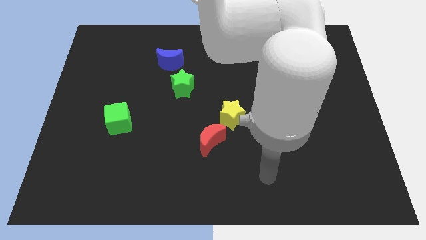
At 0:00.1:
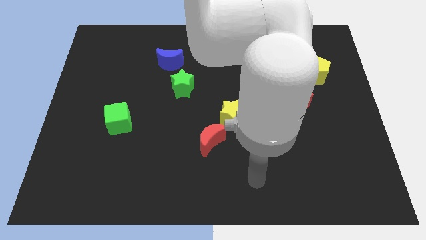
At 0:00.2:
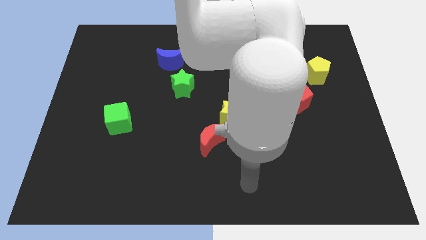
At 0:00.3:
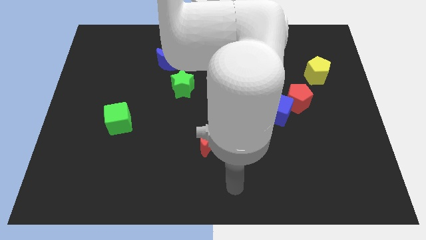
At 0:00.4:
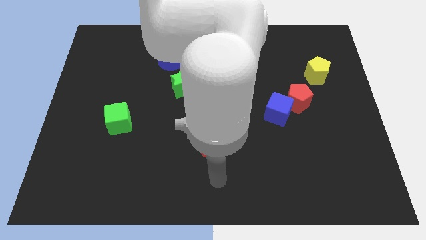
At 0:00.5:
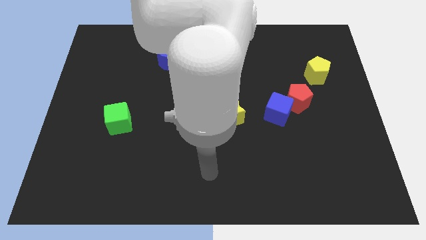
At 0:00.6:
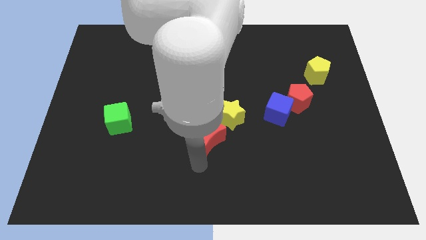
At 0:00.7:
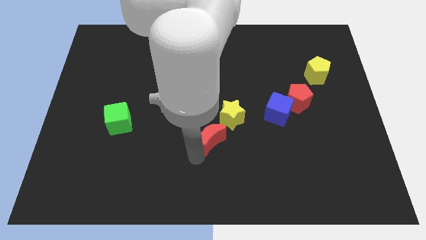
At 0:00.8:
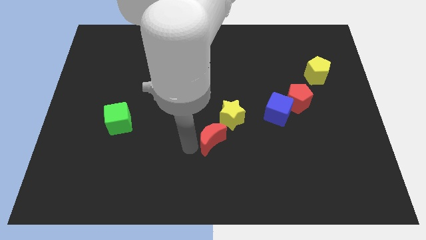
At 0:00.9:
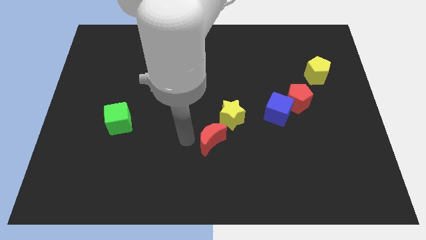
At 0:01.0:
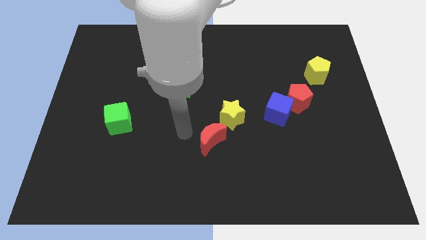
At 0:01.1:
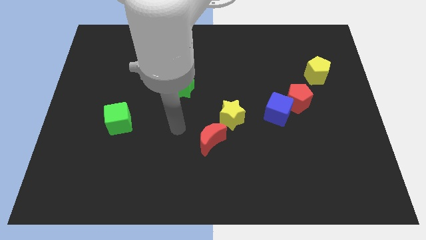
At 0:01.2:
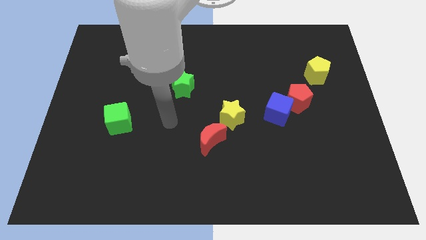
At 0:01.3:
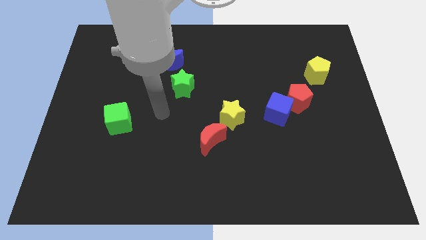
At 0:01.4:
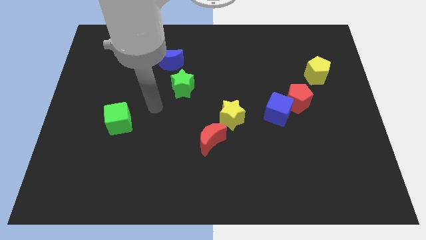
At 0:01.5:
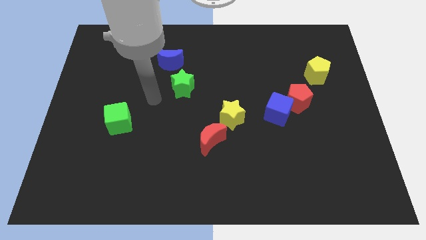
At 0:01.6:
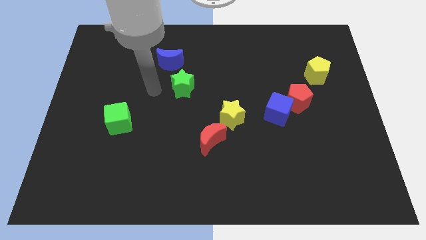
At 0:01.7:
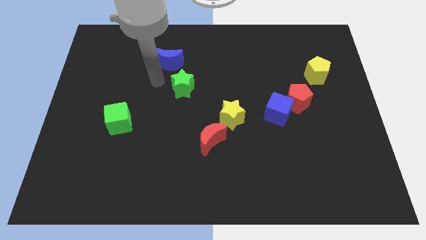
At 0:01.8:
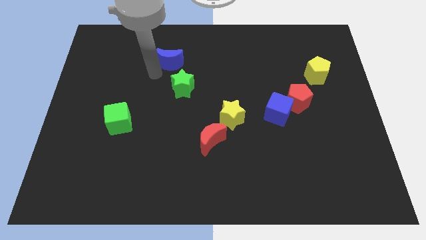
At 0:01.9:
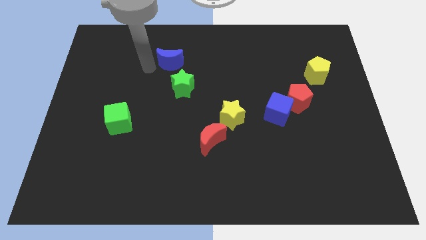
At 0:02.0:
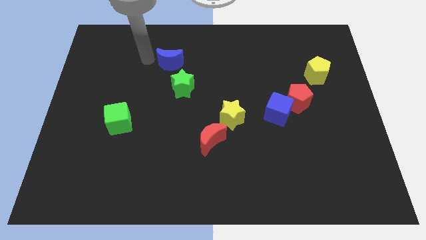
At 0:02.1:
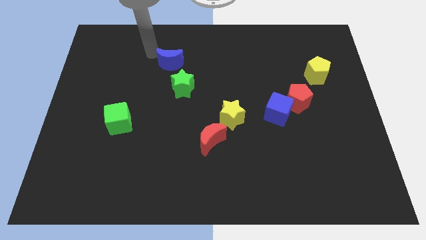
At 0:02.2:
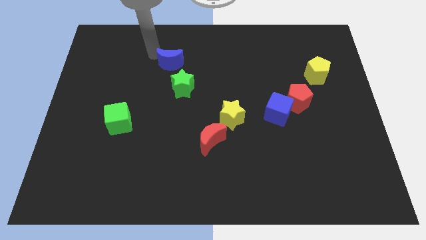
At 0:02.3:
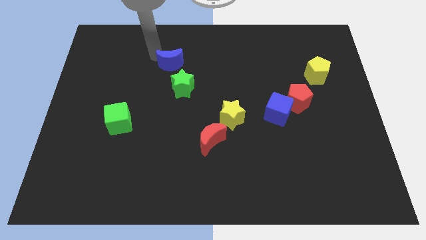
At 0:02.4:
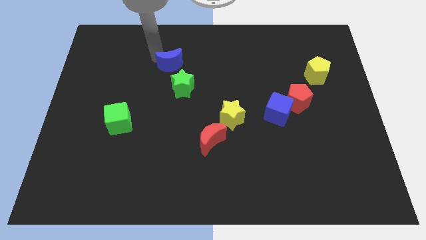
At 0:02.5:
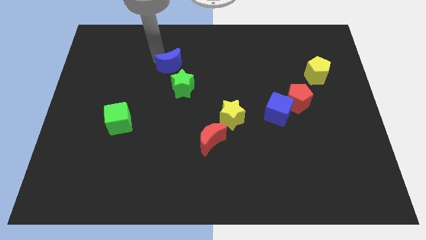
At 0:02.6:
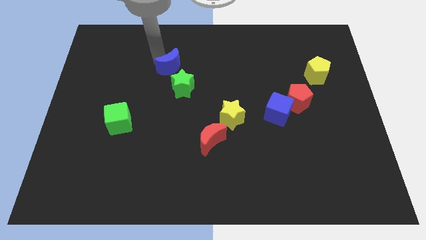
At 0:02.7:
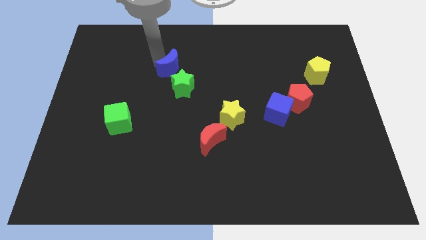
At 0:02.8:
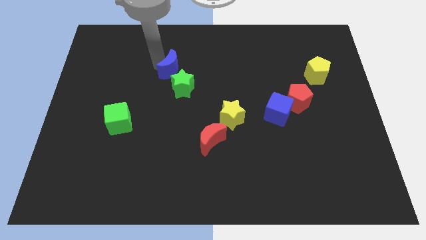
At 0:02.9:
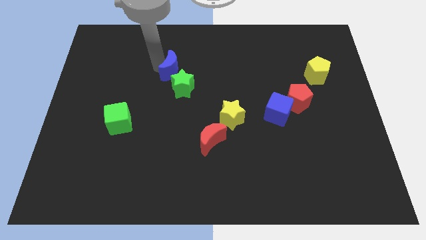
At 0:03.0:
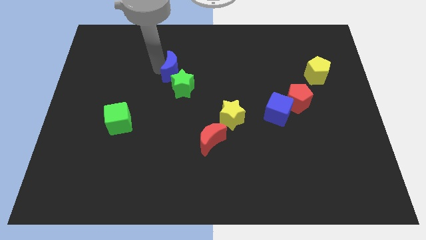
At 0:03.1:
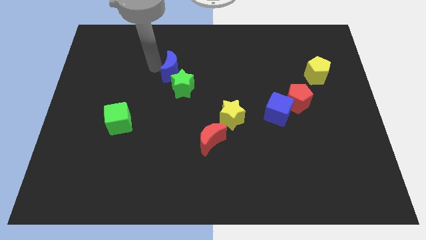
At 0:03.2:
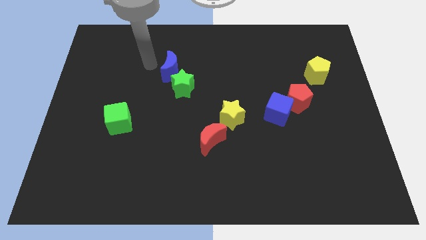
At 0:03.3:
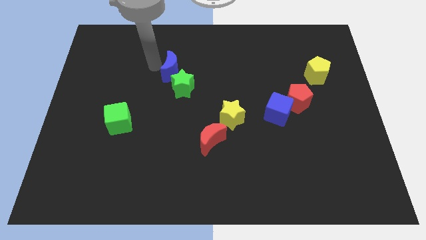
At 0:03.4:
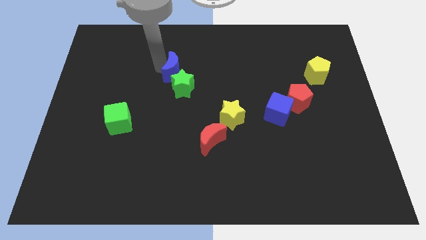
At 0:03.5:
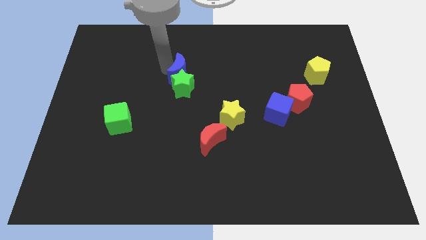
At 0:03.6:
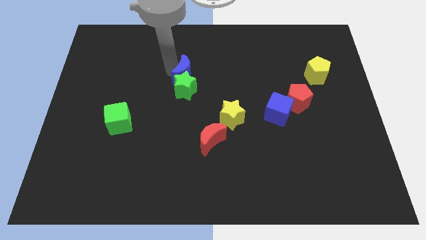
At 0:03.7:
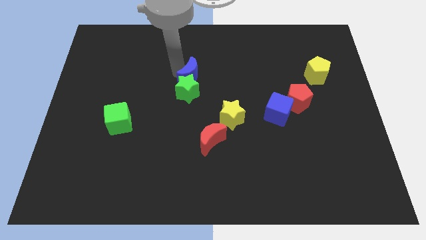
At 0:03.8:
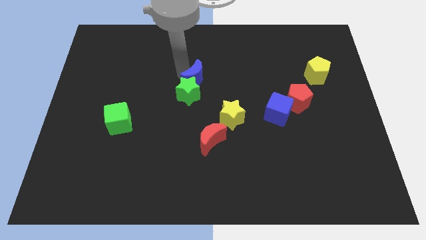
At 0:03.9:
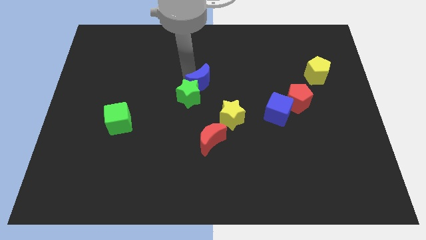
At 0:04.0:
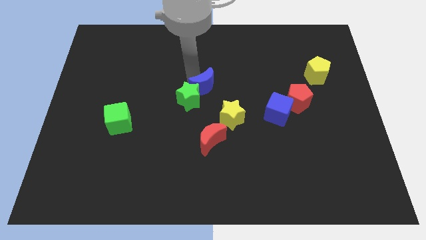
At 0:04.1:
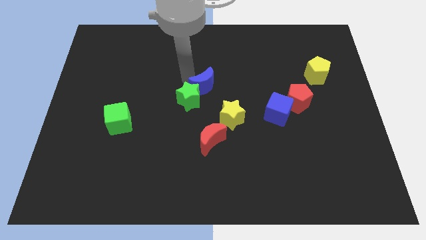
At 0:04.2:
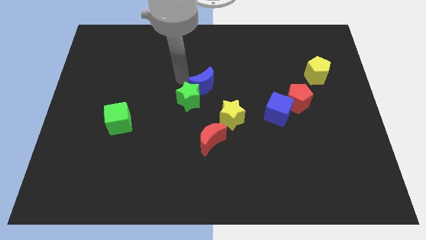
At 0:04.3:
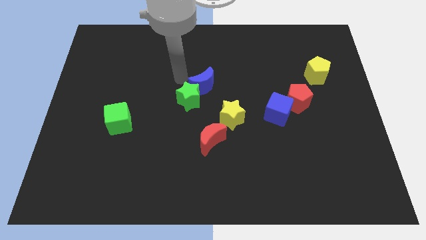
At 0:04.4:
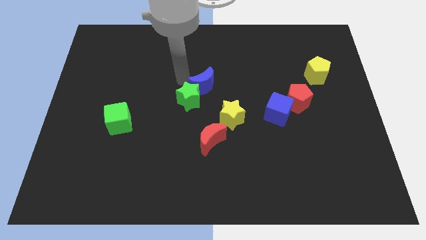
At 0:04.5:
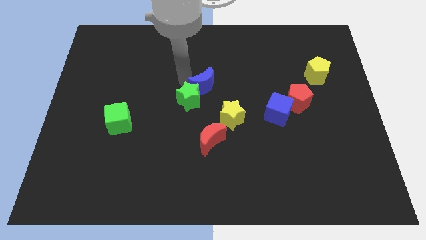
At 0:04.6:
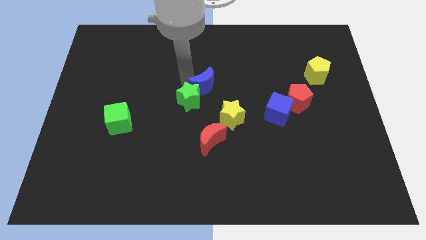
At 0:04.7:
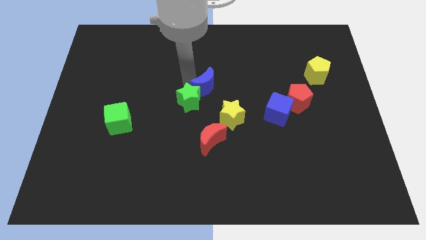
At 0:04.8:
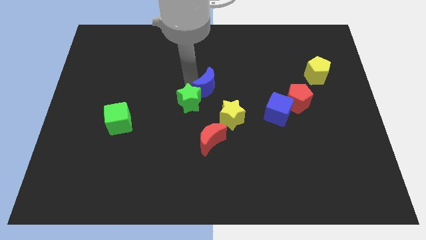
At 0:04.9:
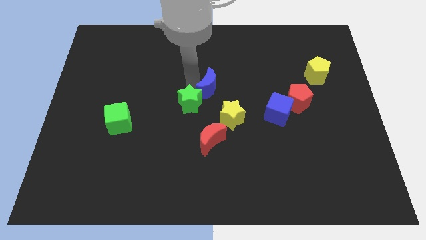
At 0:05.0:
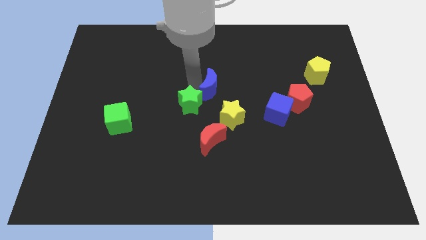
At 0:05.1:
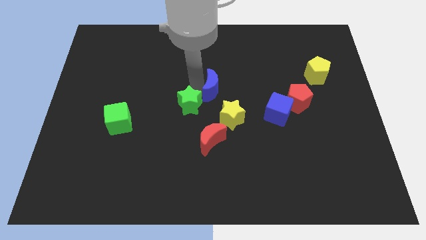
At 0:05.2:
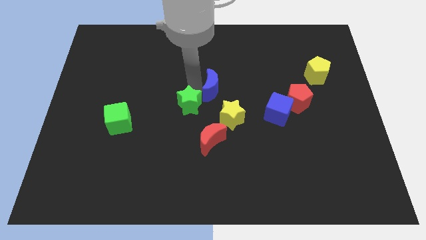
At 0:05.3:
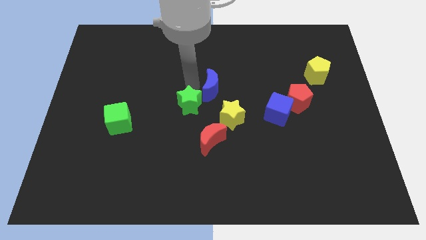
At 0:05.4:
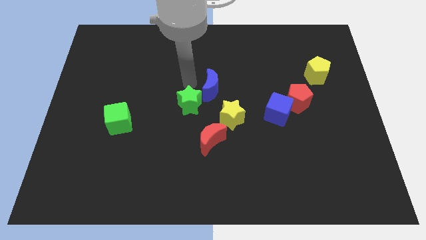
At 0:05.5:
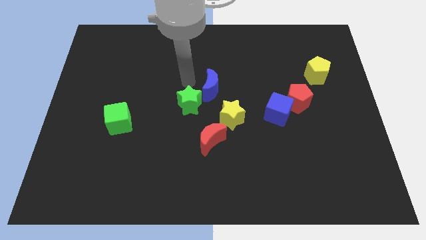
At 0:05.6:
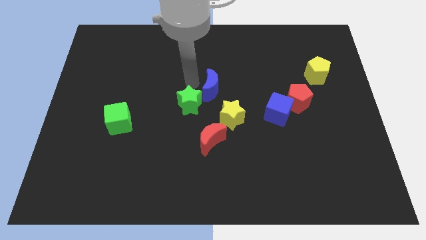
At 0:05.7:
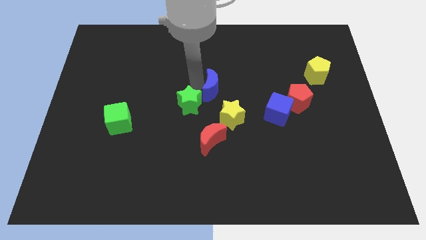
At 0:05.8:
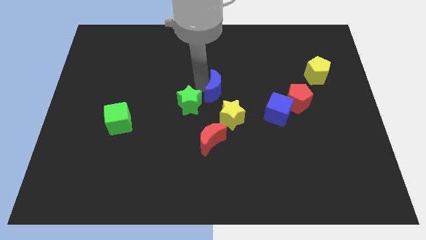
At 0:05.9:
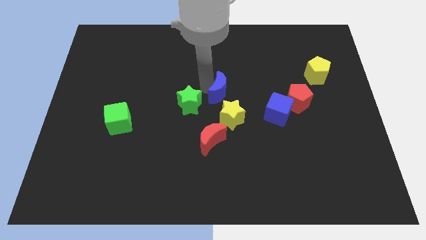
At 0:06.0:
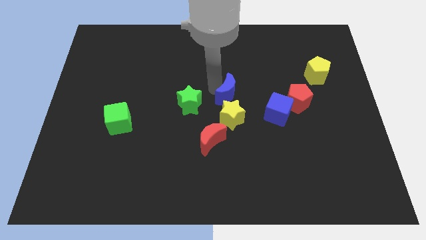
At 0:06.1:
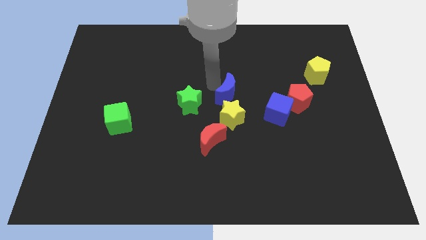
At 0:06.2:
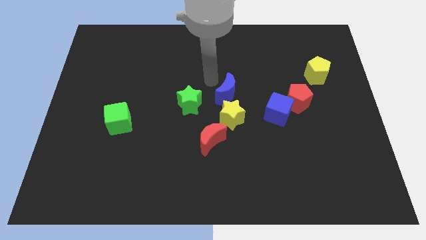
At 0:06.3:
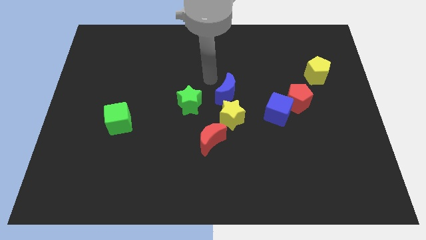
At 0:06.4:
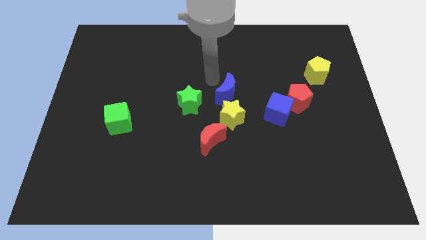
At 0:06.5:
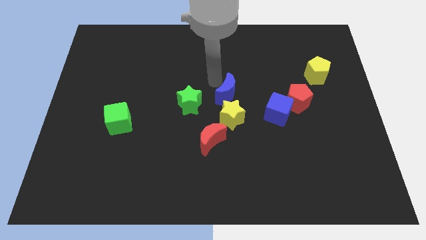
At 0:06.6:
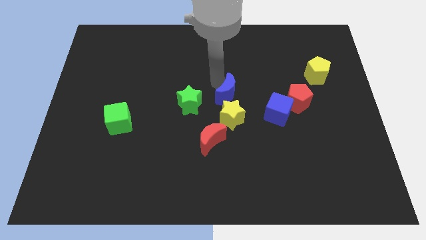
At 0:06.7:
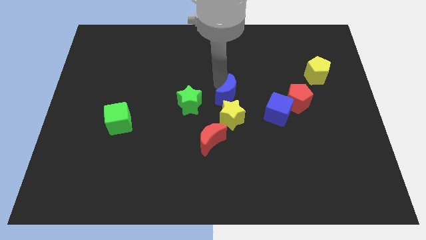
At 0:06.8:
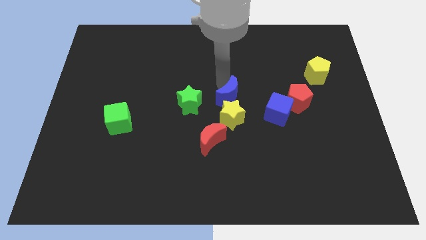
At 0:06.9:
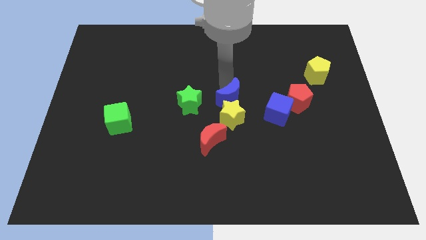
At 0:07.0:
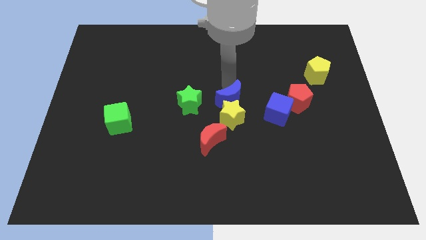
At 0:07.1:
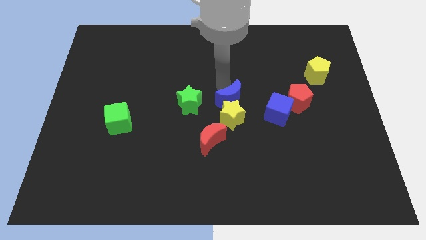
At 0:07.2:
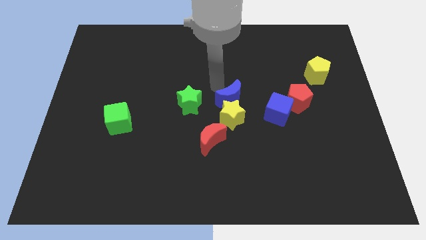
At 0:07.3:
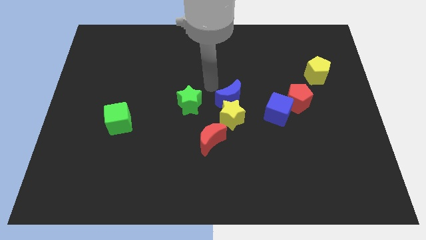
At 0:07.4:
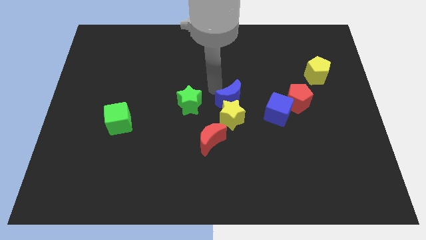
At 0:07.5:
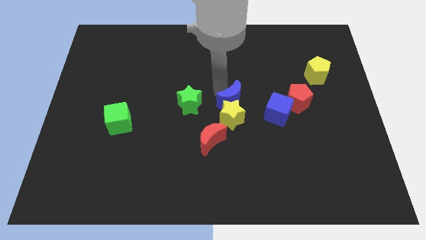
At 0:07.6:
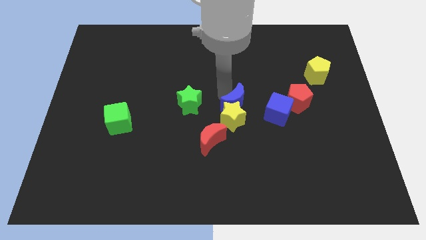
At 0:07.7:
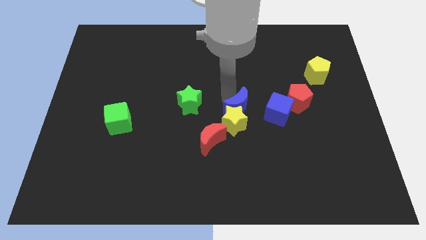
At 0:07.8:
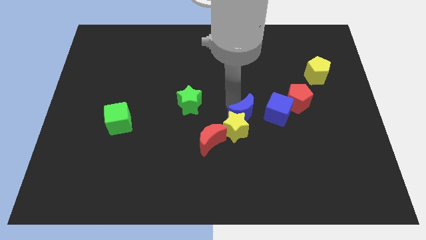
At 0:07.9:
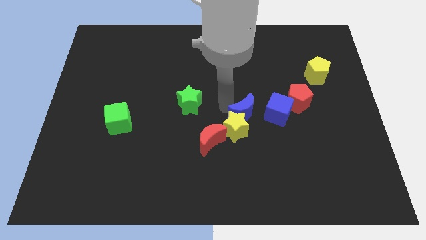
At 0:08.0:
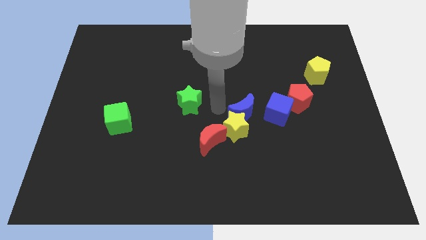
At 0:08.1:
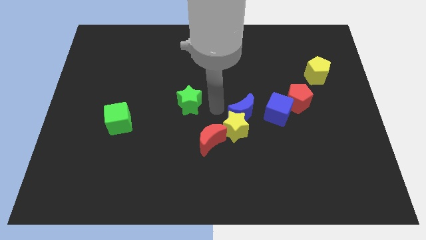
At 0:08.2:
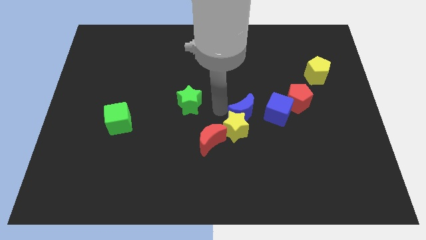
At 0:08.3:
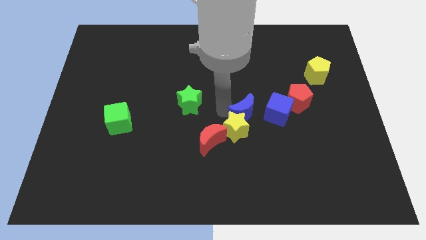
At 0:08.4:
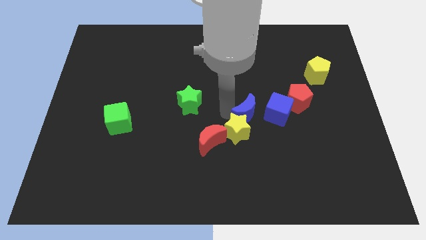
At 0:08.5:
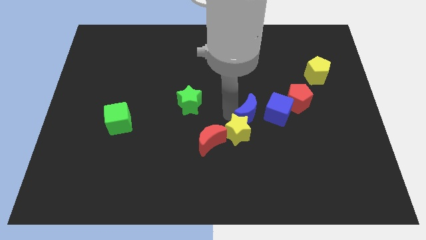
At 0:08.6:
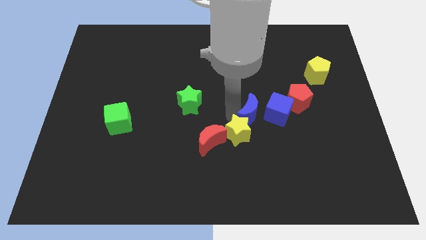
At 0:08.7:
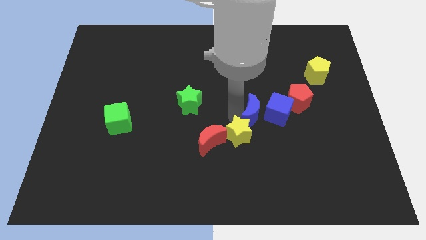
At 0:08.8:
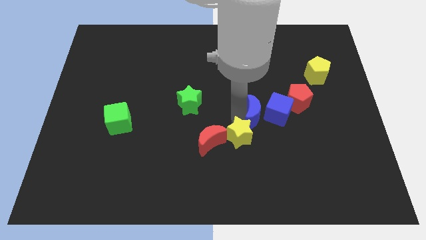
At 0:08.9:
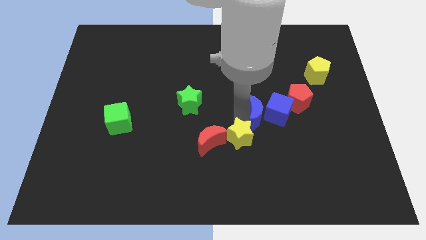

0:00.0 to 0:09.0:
put the blue moon diagonally down and to the left of the red pentagon
